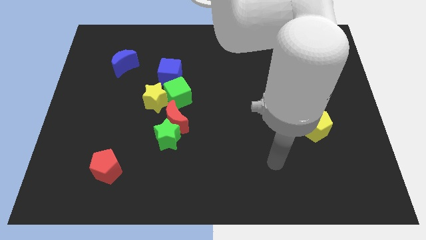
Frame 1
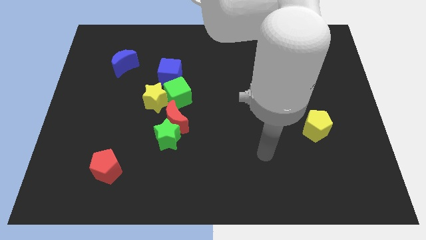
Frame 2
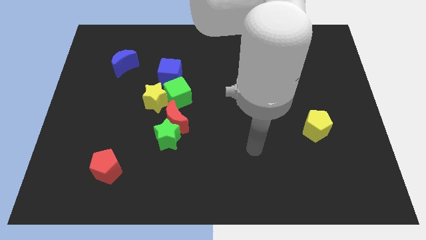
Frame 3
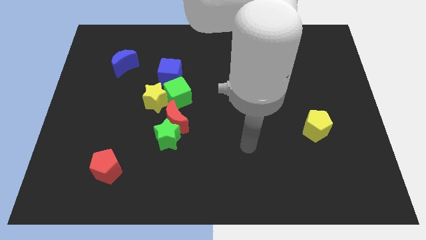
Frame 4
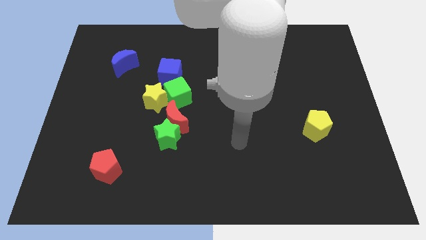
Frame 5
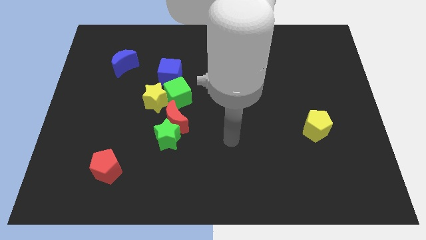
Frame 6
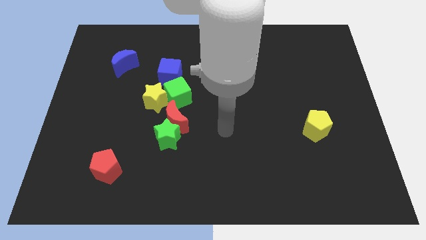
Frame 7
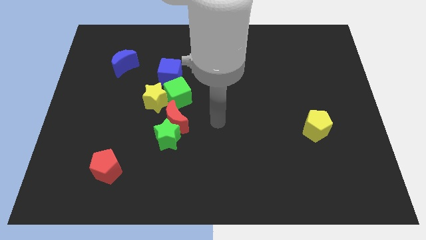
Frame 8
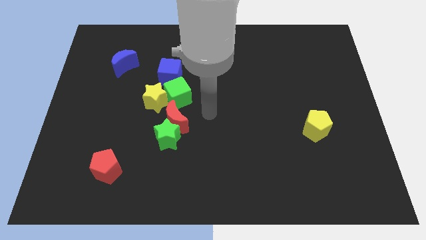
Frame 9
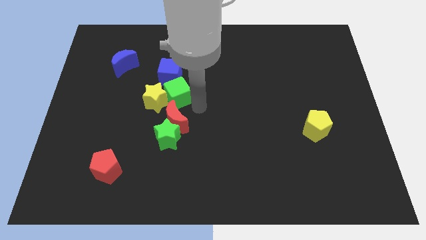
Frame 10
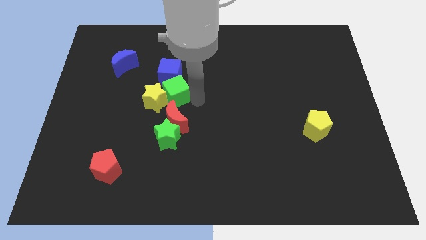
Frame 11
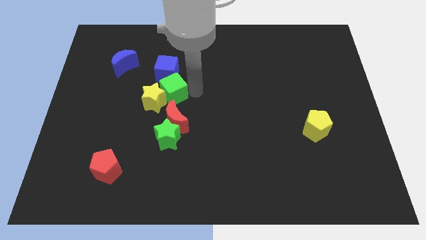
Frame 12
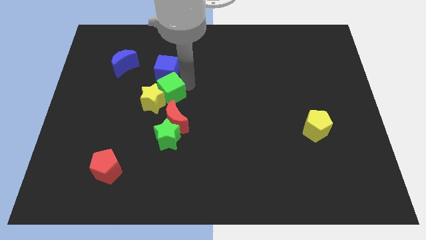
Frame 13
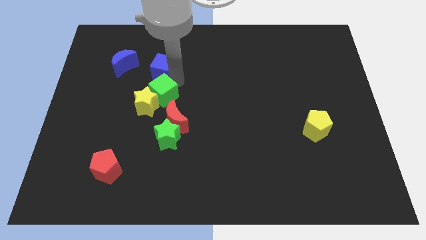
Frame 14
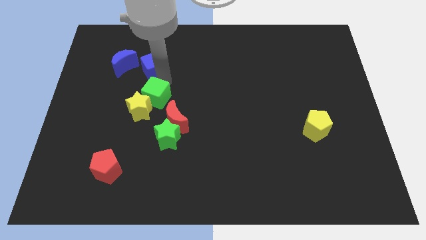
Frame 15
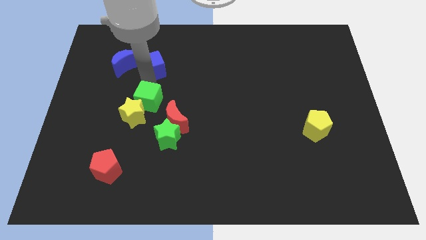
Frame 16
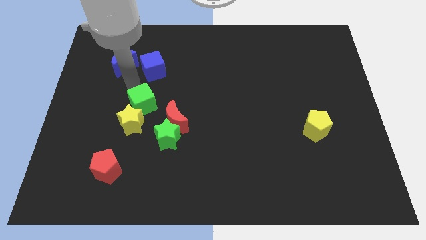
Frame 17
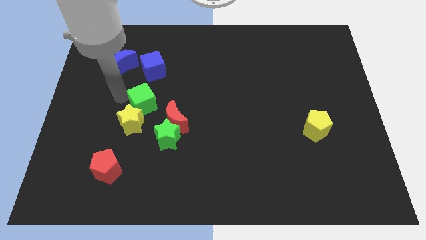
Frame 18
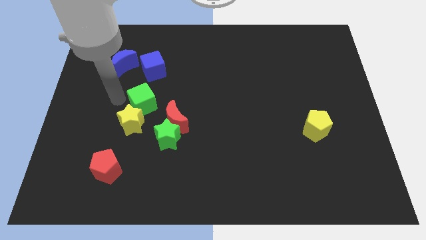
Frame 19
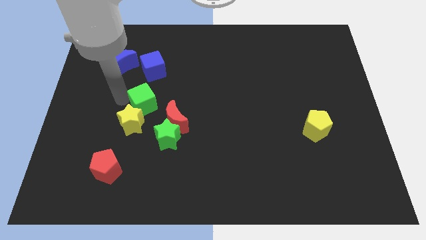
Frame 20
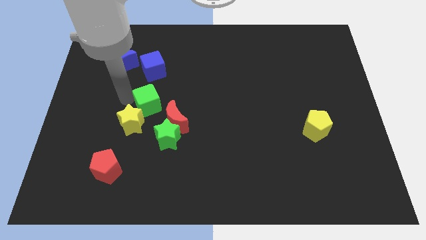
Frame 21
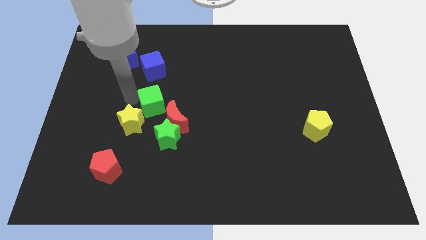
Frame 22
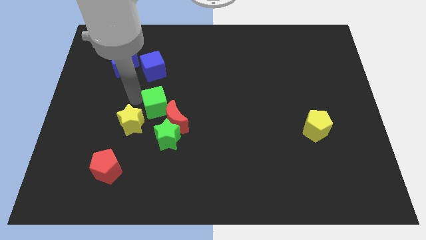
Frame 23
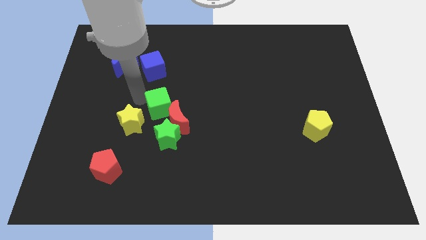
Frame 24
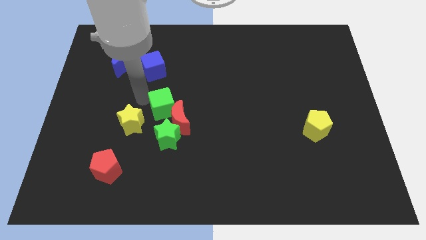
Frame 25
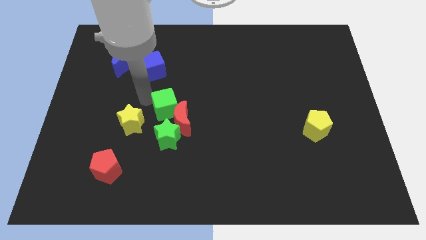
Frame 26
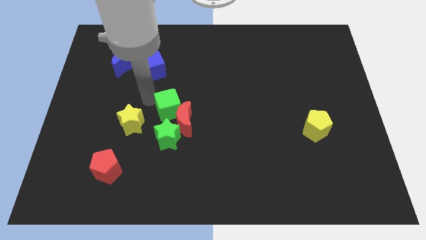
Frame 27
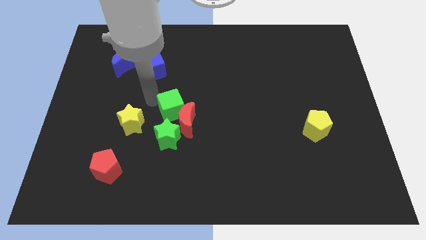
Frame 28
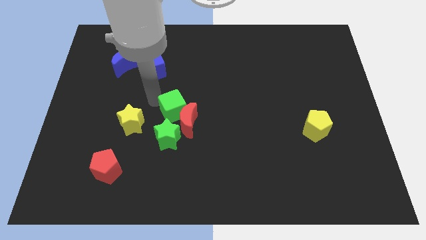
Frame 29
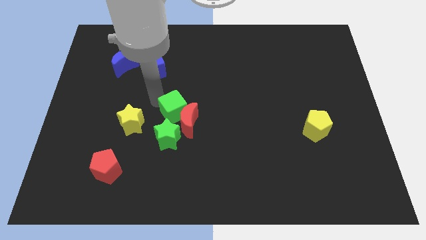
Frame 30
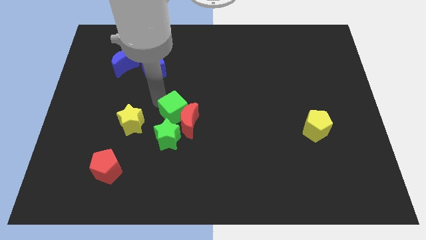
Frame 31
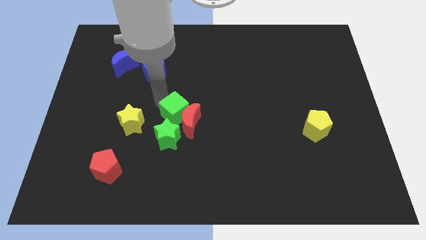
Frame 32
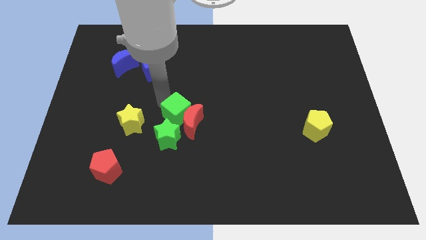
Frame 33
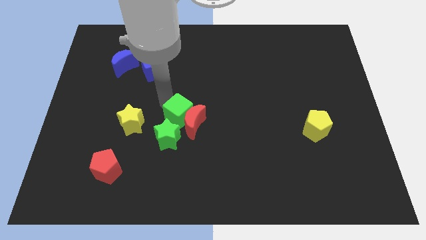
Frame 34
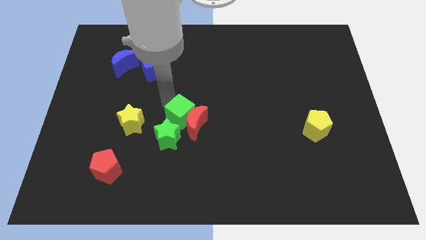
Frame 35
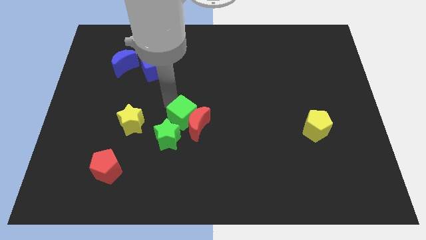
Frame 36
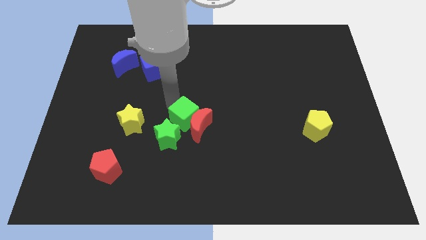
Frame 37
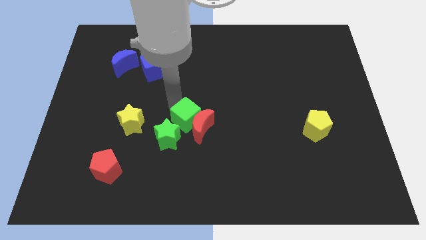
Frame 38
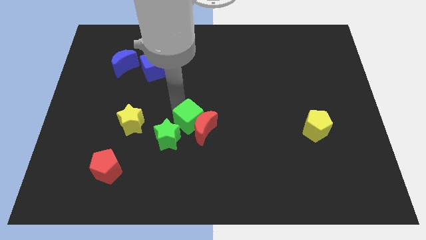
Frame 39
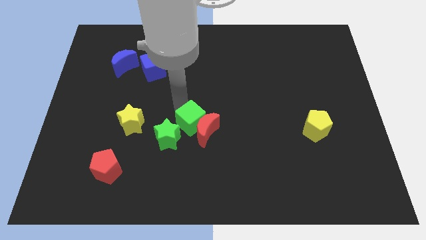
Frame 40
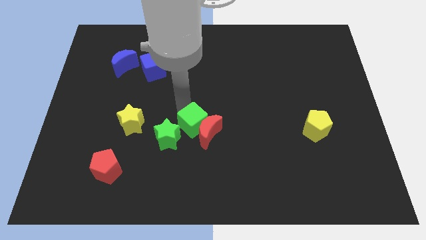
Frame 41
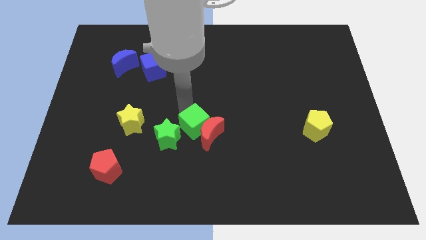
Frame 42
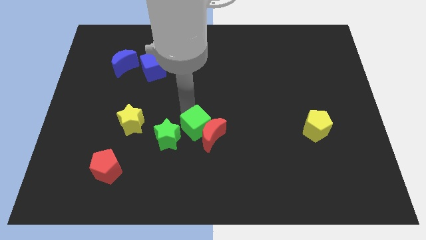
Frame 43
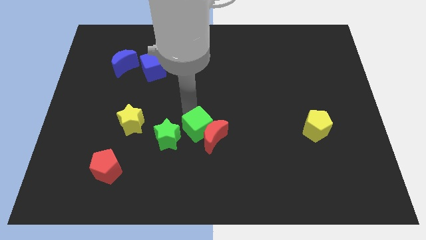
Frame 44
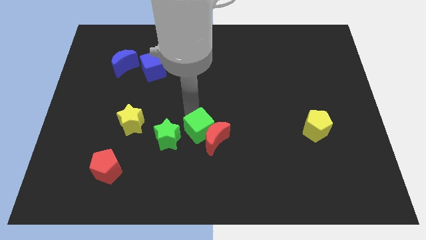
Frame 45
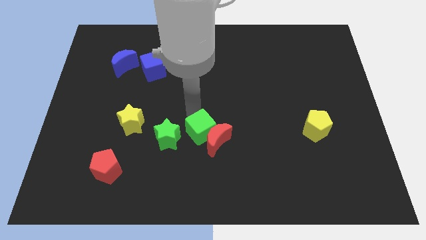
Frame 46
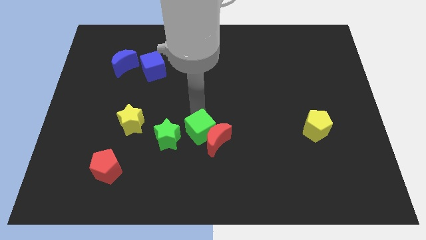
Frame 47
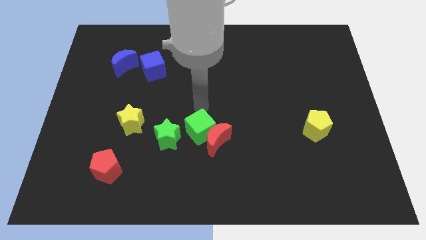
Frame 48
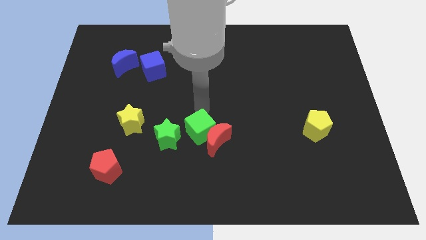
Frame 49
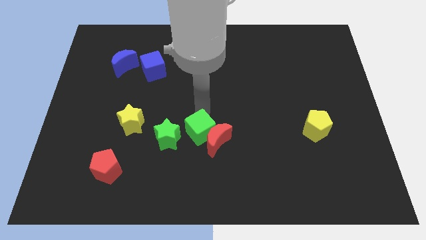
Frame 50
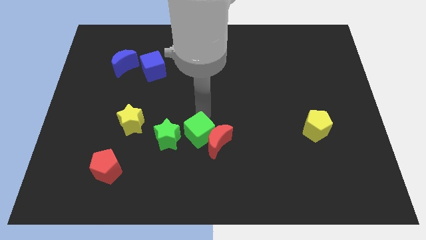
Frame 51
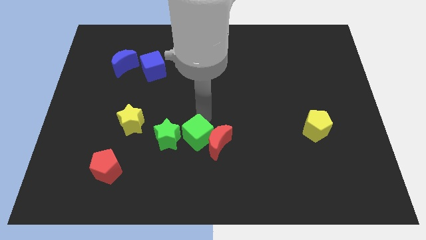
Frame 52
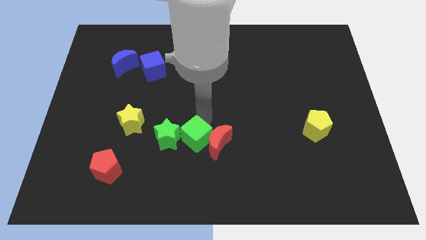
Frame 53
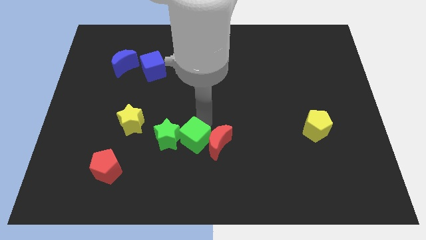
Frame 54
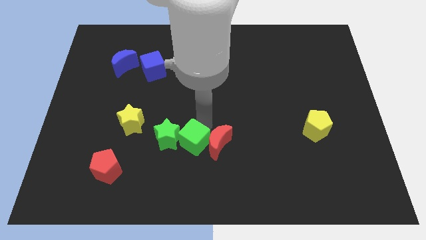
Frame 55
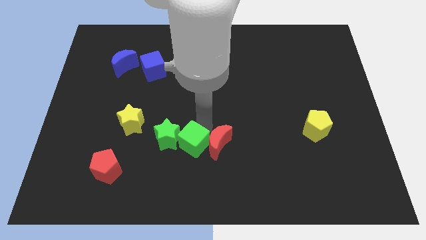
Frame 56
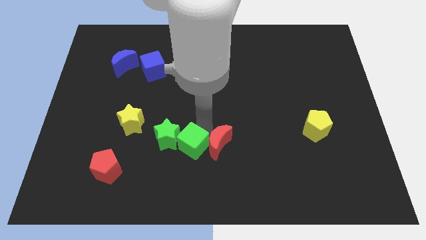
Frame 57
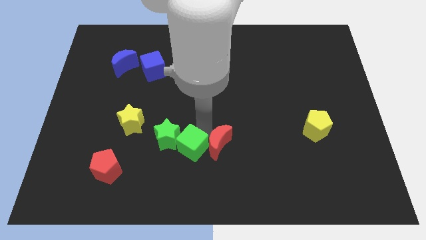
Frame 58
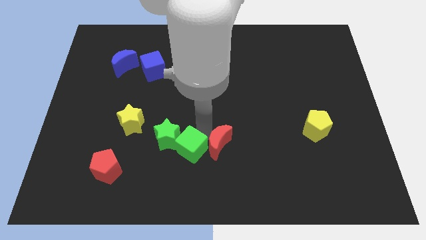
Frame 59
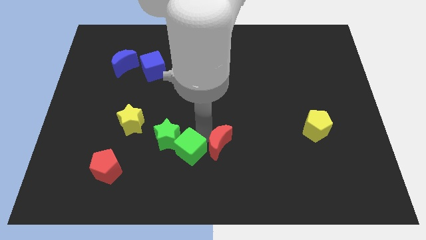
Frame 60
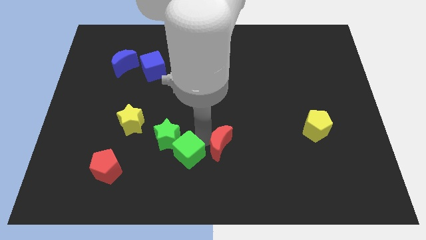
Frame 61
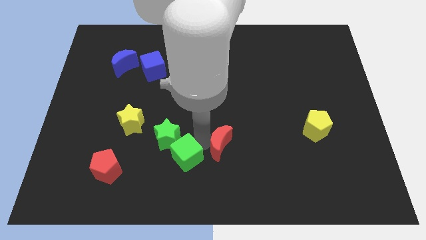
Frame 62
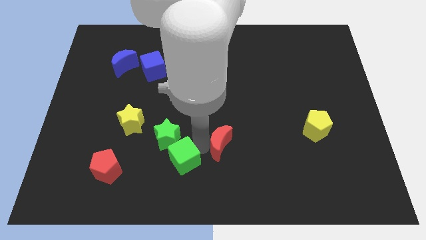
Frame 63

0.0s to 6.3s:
put the green cube to the bottom

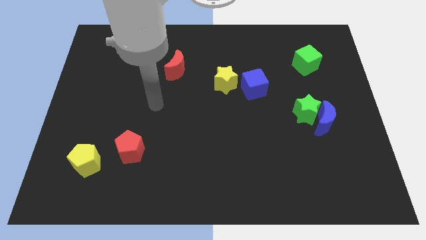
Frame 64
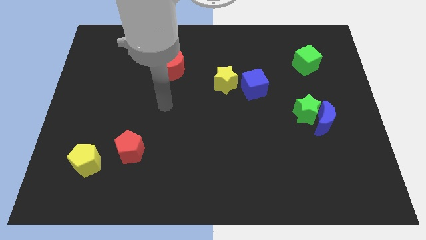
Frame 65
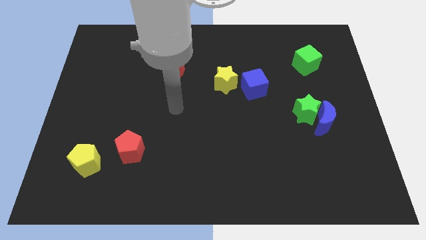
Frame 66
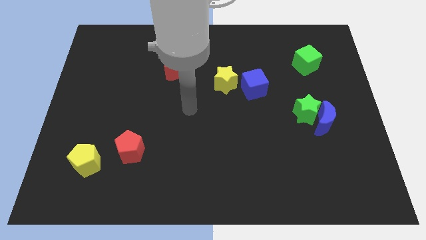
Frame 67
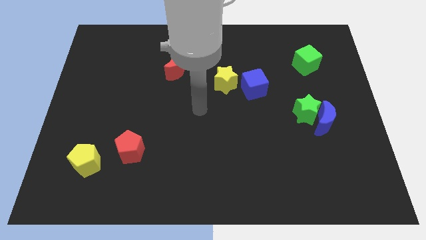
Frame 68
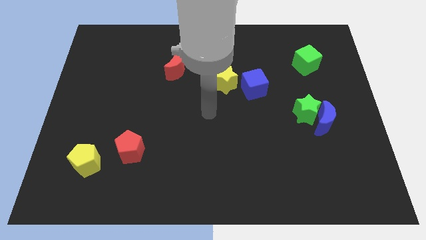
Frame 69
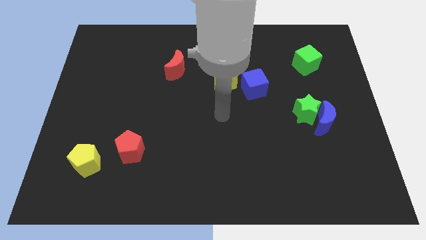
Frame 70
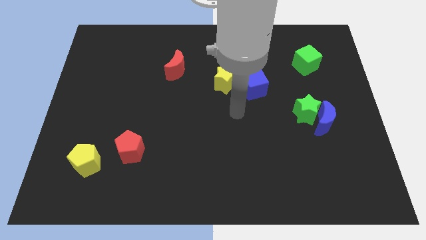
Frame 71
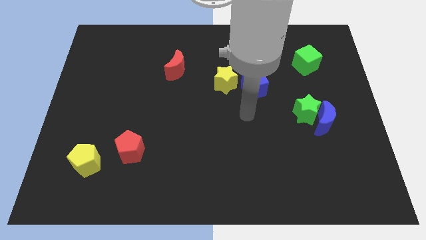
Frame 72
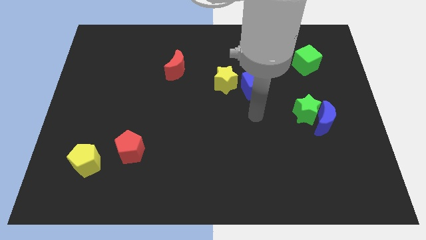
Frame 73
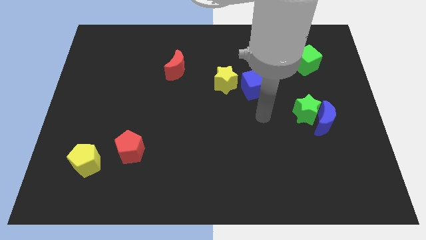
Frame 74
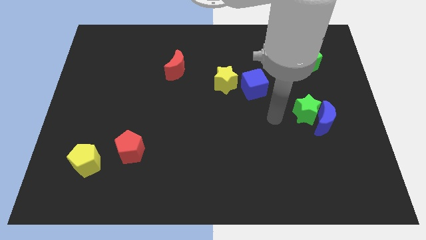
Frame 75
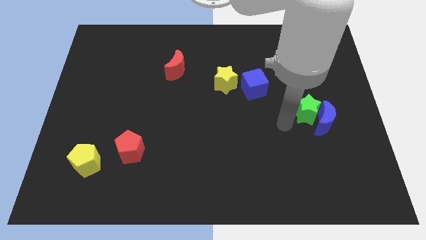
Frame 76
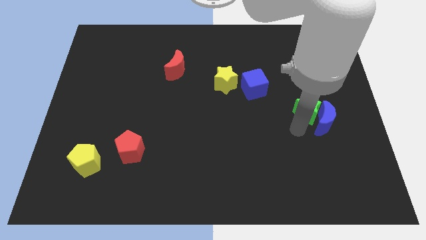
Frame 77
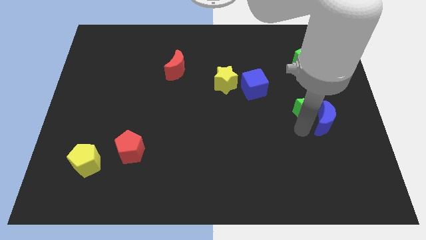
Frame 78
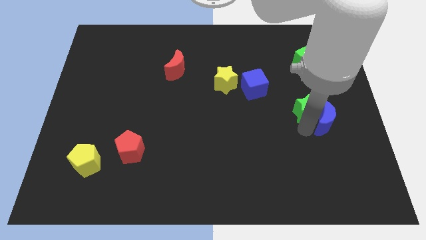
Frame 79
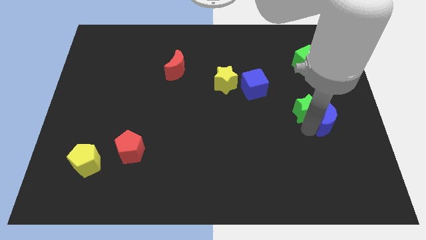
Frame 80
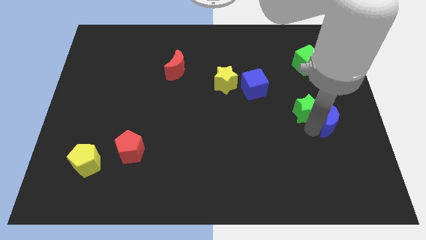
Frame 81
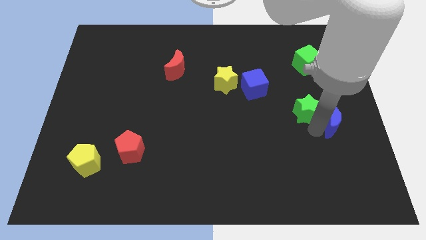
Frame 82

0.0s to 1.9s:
move the blue moon to the right side of the board
